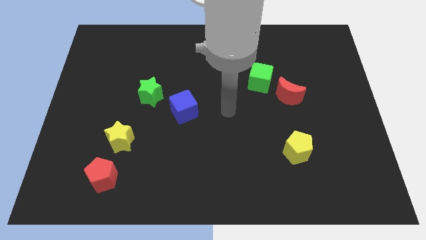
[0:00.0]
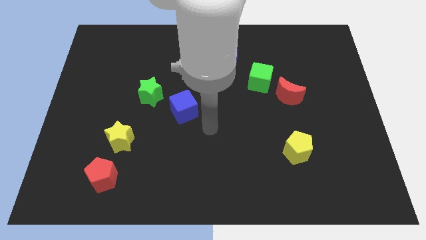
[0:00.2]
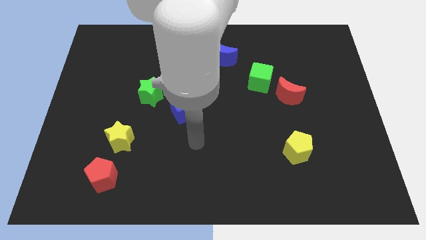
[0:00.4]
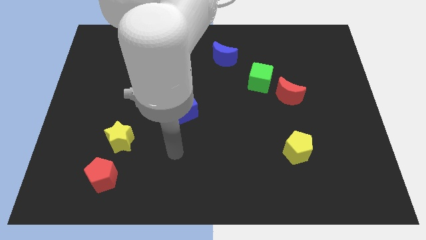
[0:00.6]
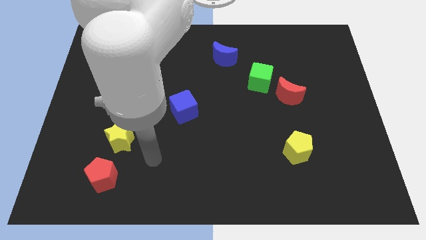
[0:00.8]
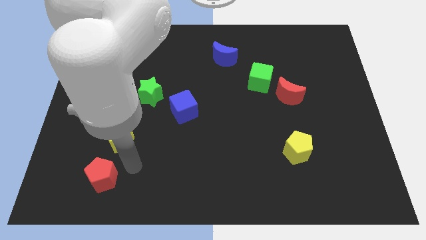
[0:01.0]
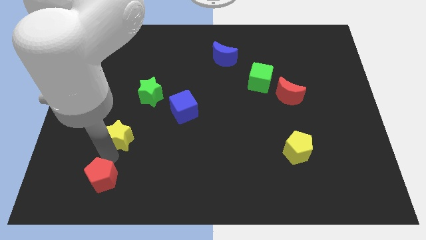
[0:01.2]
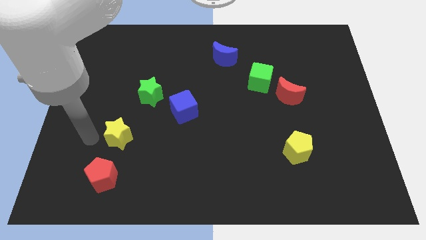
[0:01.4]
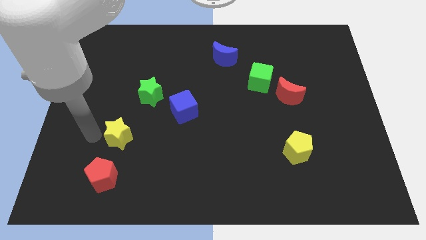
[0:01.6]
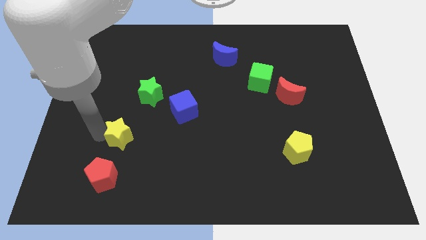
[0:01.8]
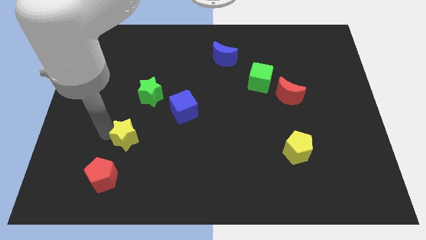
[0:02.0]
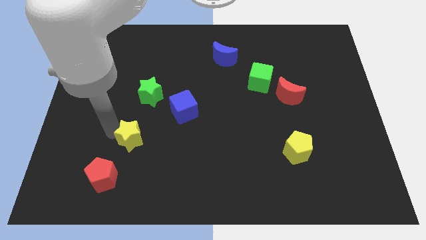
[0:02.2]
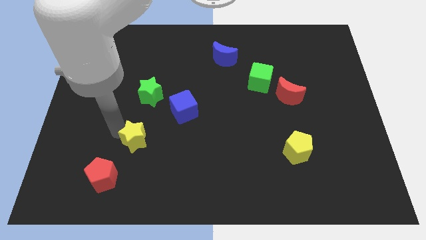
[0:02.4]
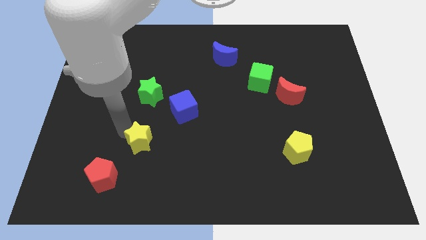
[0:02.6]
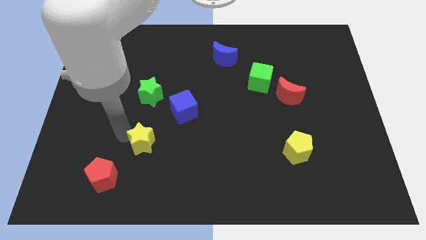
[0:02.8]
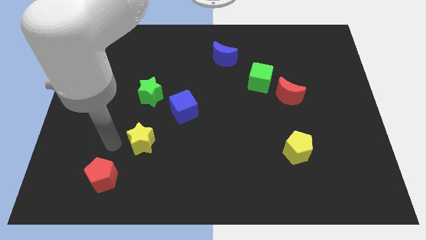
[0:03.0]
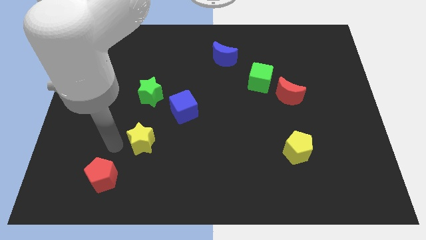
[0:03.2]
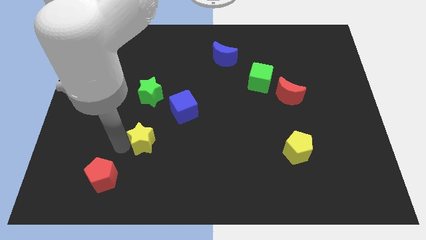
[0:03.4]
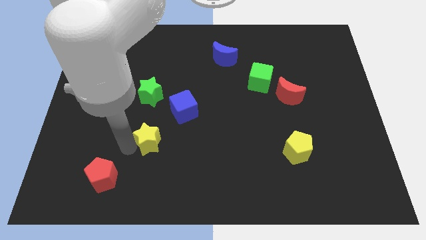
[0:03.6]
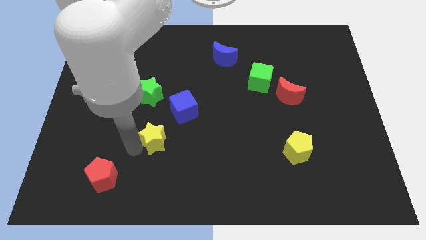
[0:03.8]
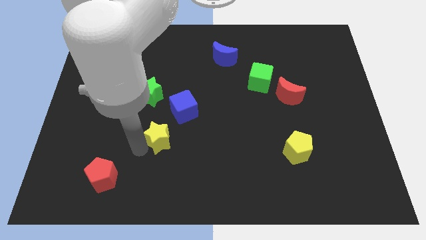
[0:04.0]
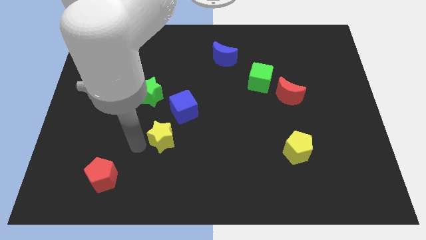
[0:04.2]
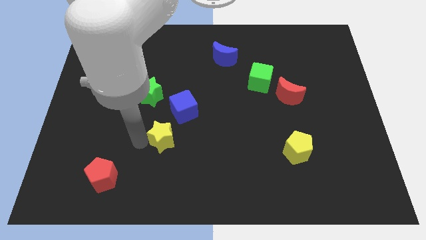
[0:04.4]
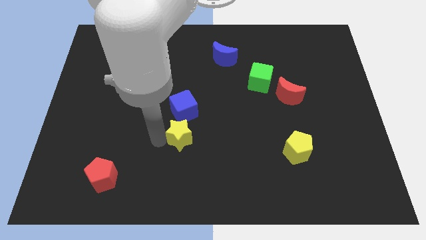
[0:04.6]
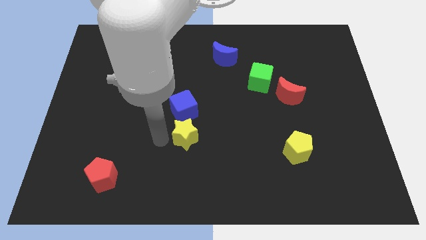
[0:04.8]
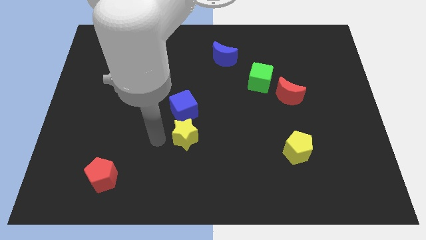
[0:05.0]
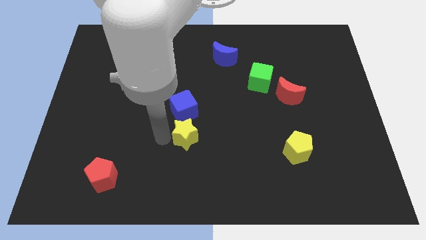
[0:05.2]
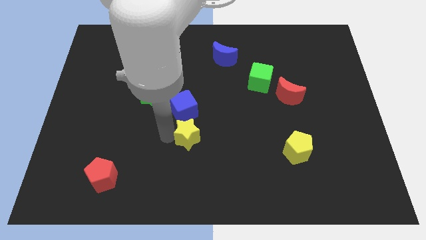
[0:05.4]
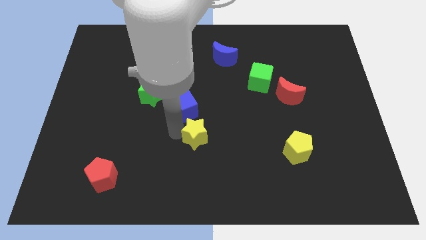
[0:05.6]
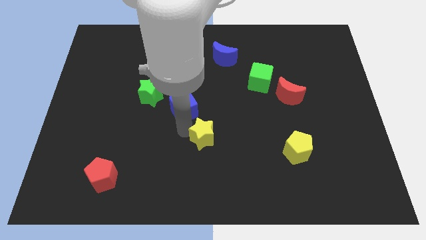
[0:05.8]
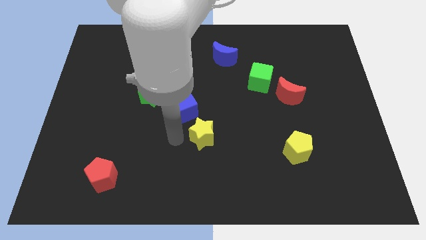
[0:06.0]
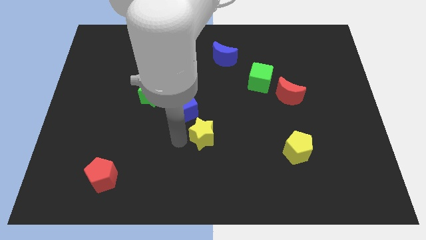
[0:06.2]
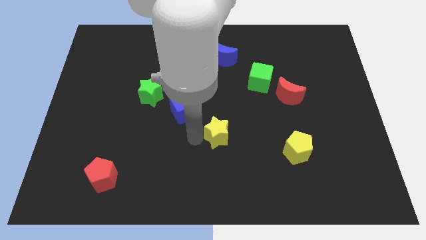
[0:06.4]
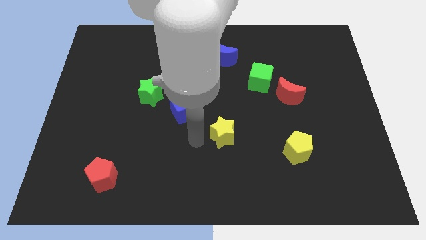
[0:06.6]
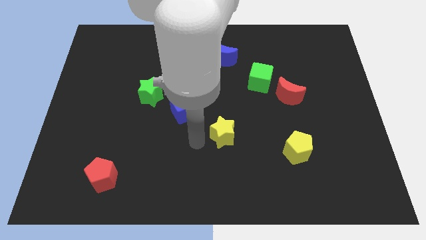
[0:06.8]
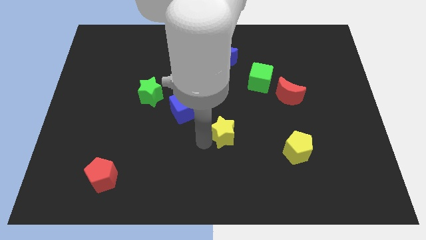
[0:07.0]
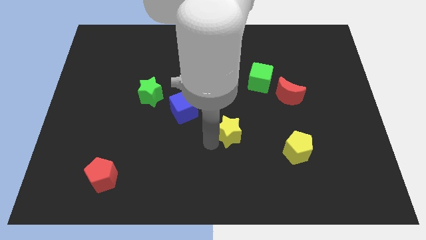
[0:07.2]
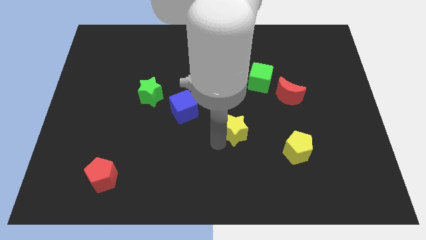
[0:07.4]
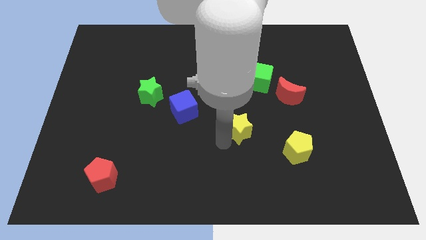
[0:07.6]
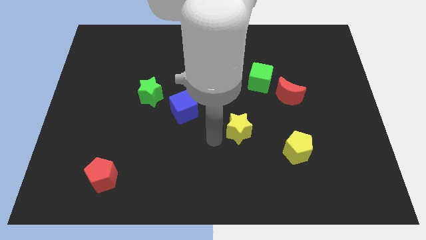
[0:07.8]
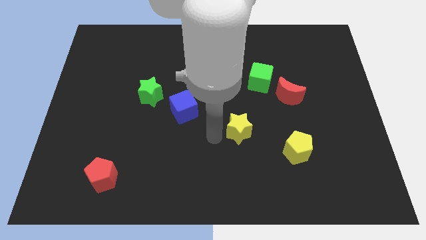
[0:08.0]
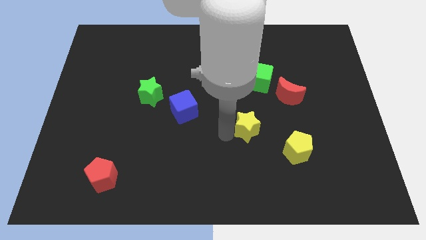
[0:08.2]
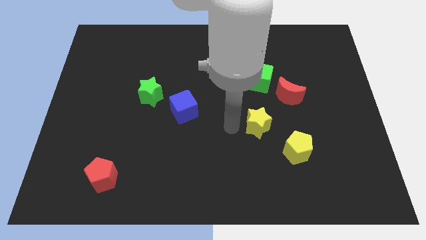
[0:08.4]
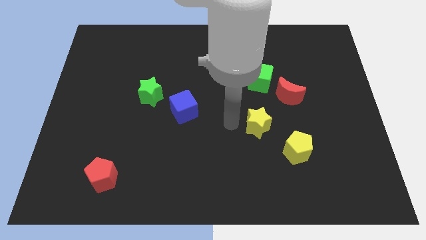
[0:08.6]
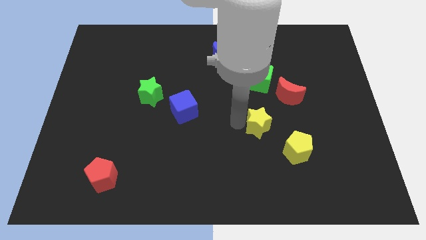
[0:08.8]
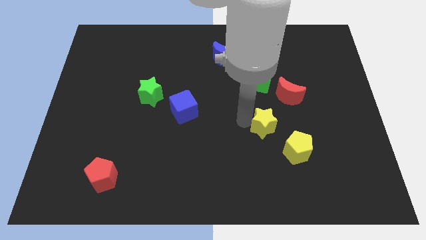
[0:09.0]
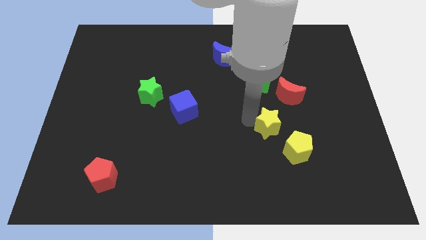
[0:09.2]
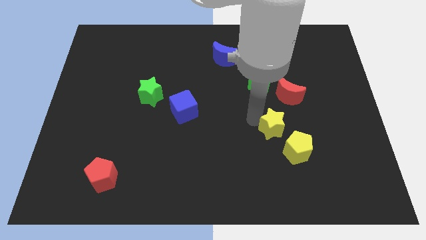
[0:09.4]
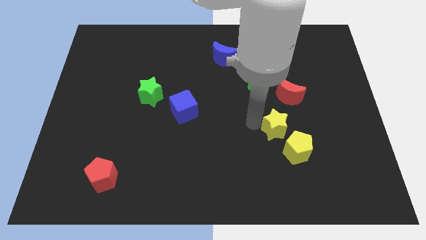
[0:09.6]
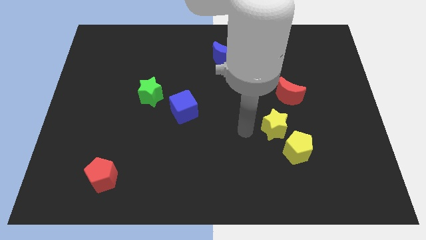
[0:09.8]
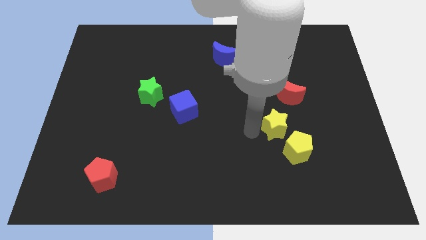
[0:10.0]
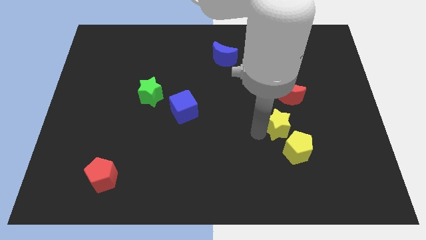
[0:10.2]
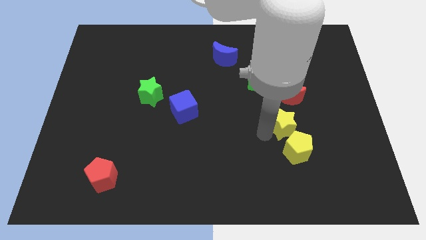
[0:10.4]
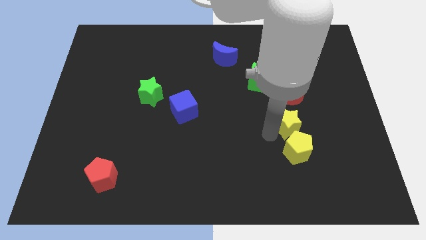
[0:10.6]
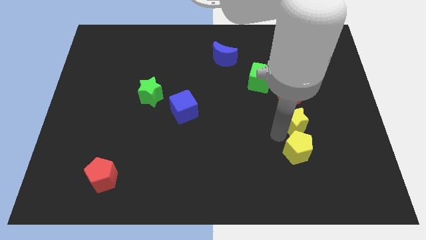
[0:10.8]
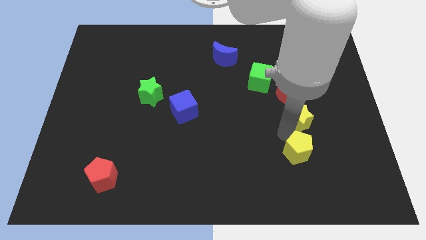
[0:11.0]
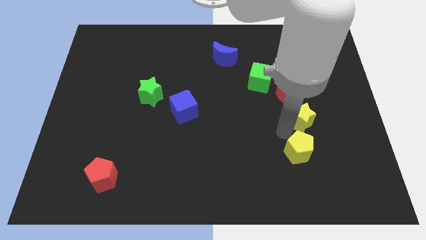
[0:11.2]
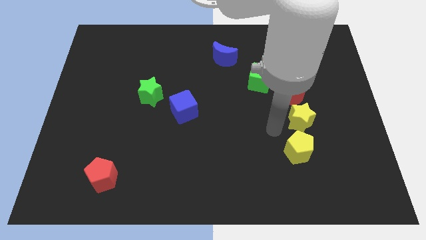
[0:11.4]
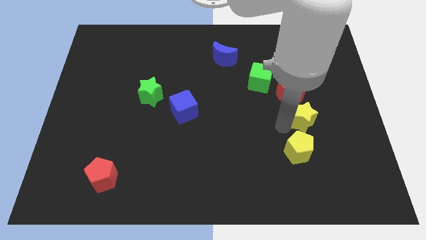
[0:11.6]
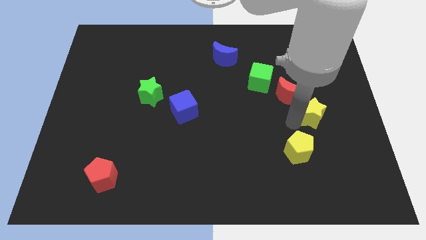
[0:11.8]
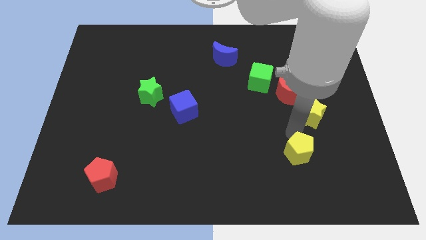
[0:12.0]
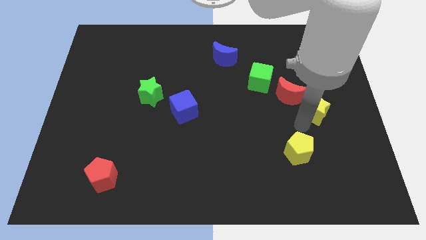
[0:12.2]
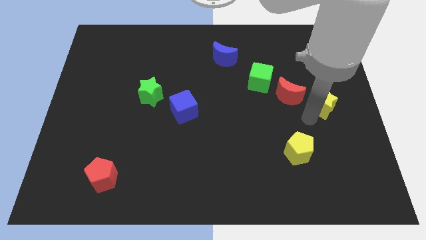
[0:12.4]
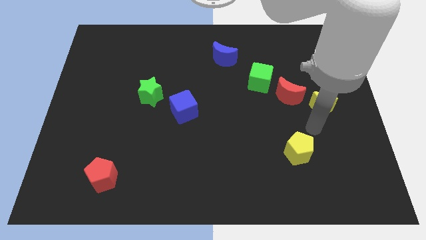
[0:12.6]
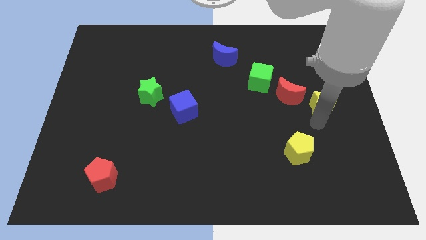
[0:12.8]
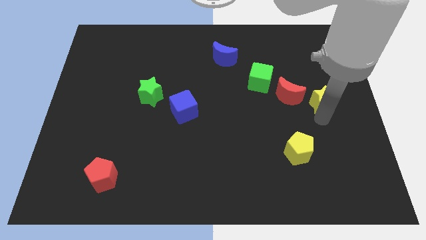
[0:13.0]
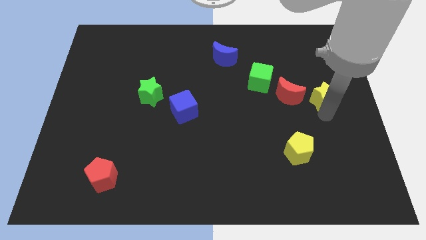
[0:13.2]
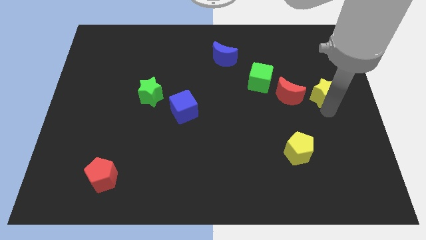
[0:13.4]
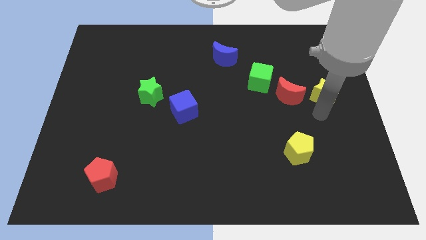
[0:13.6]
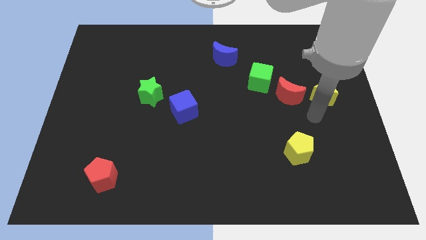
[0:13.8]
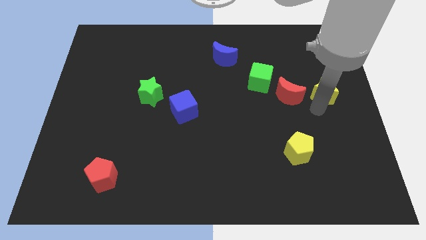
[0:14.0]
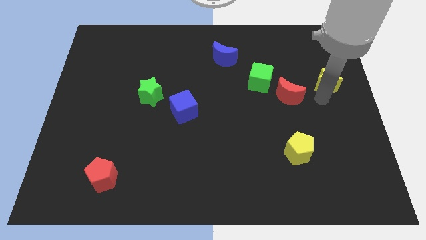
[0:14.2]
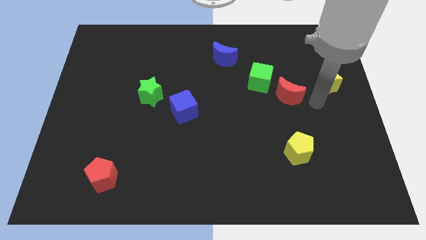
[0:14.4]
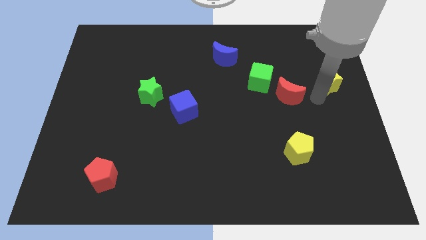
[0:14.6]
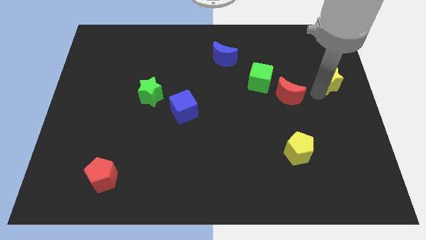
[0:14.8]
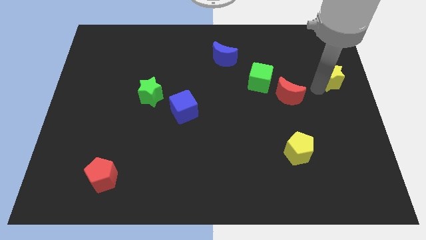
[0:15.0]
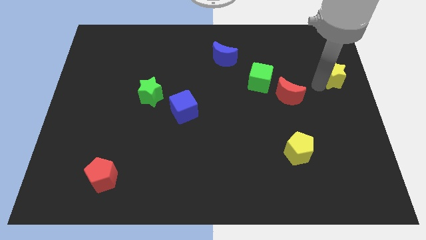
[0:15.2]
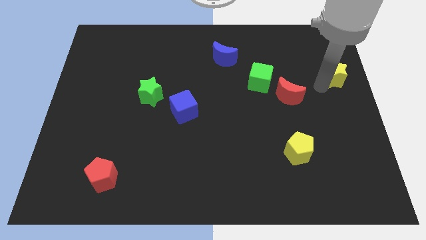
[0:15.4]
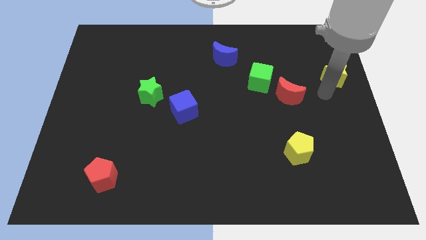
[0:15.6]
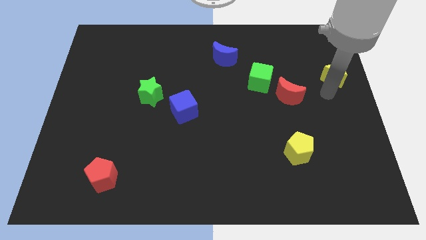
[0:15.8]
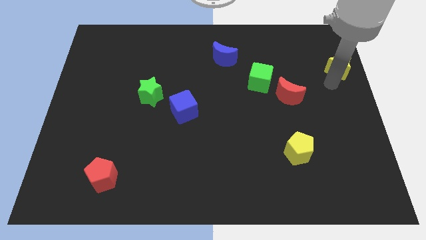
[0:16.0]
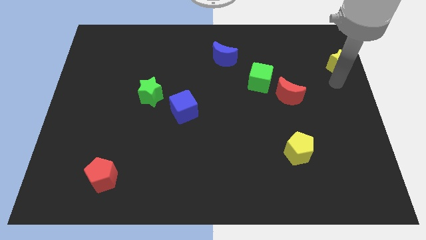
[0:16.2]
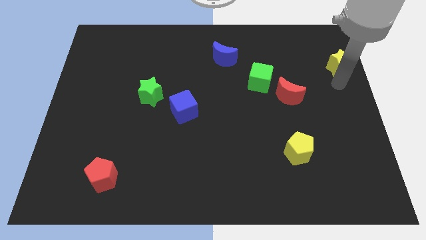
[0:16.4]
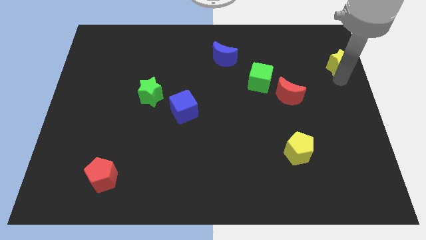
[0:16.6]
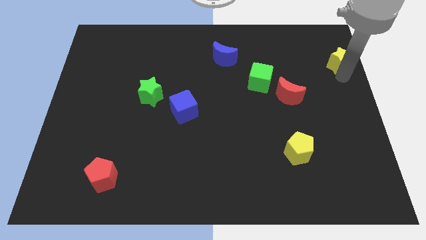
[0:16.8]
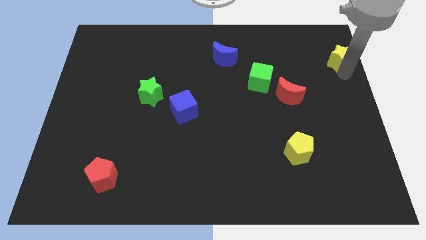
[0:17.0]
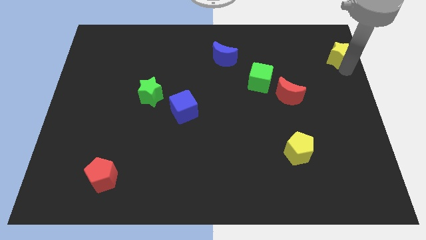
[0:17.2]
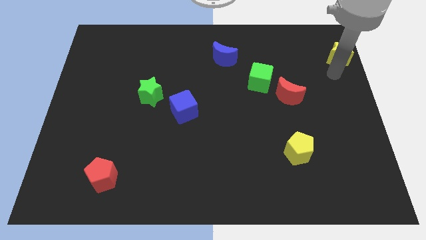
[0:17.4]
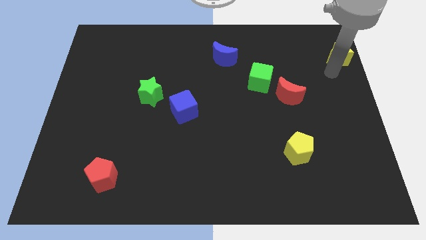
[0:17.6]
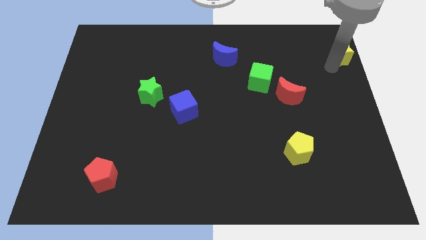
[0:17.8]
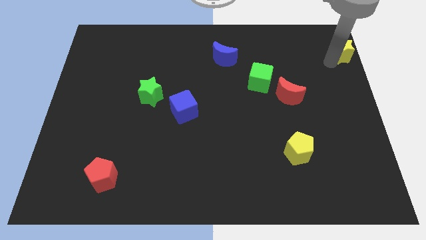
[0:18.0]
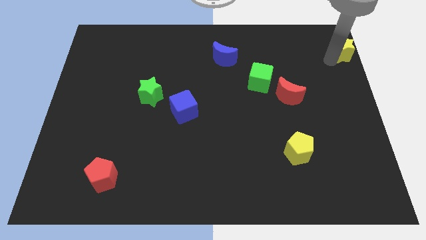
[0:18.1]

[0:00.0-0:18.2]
put the yellow star to the top right of the board
